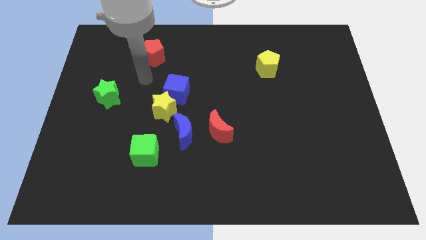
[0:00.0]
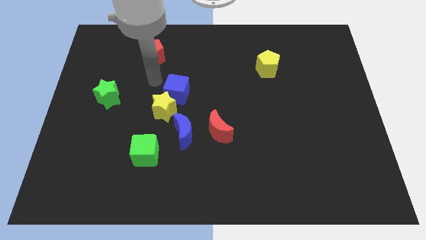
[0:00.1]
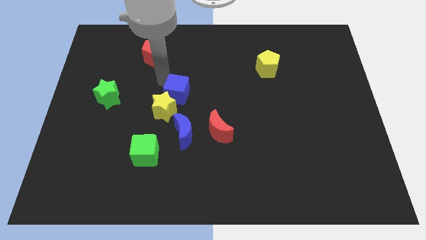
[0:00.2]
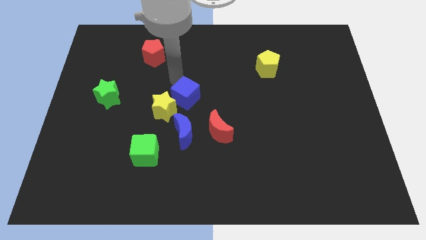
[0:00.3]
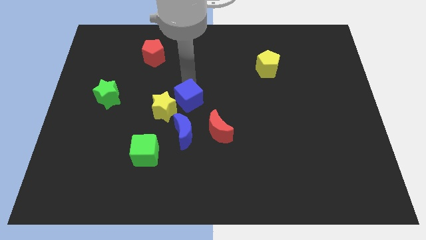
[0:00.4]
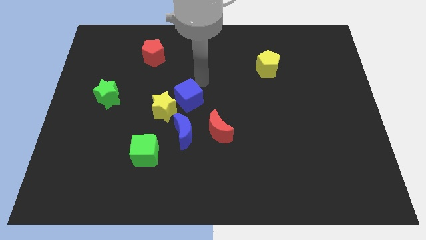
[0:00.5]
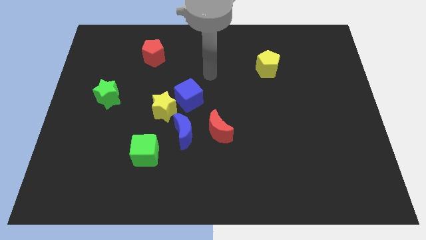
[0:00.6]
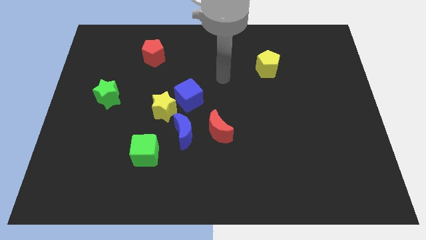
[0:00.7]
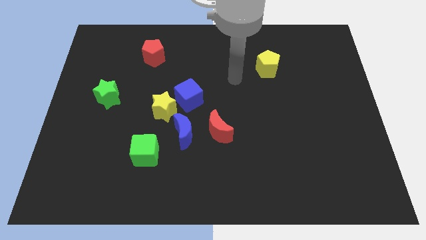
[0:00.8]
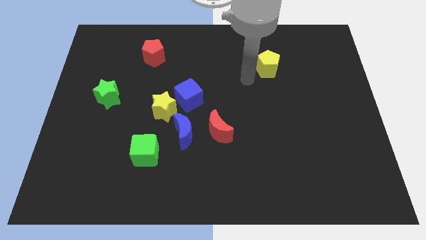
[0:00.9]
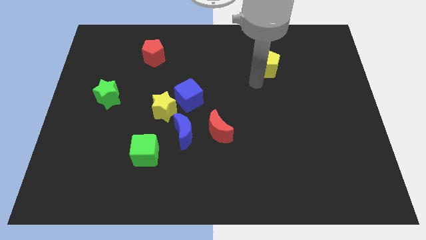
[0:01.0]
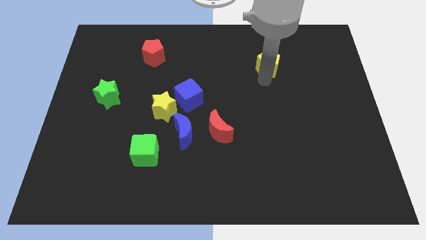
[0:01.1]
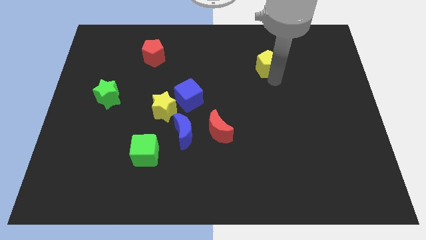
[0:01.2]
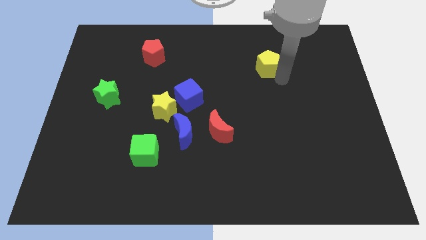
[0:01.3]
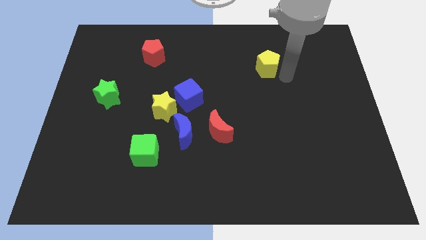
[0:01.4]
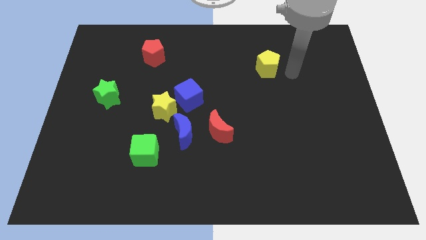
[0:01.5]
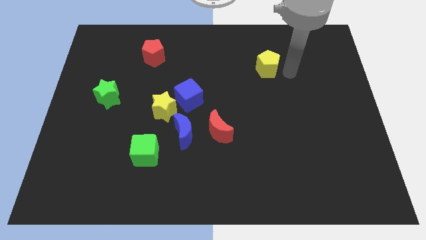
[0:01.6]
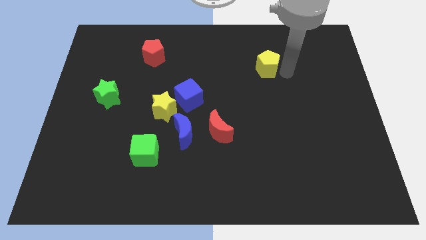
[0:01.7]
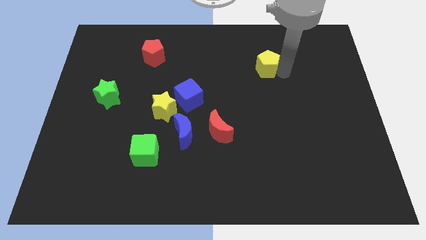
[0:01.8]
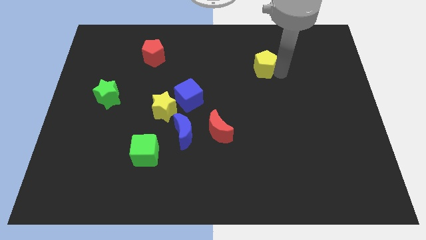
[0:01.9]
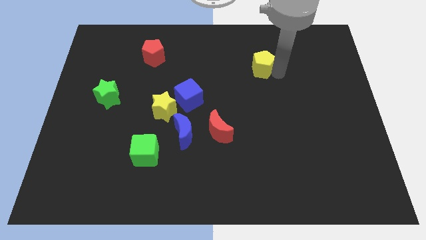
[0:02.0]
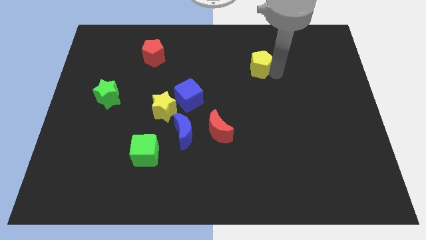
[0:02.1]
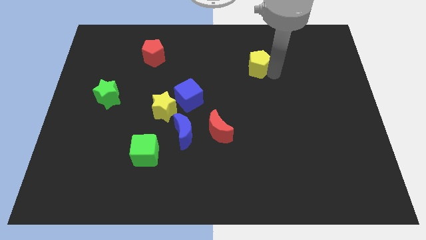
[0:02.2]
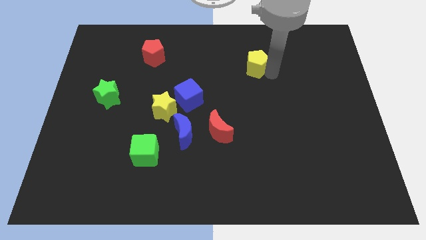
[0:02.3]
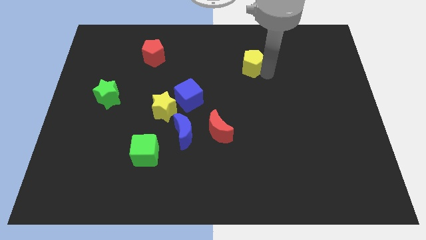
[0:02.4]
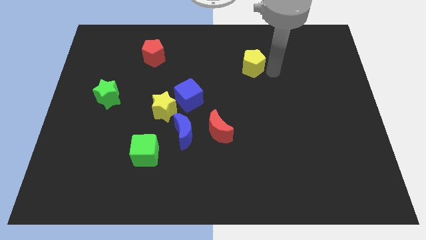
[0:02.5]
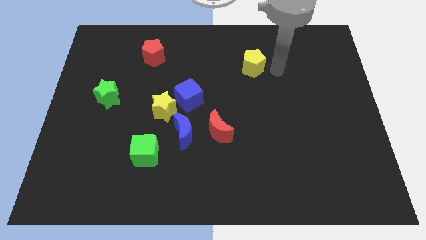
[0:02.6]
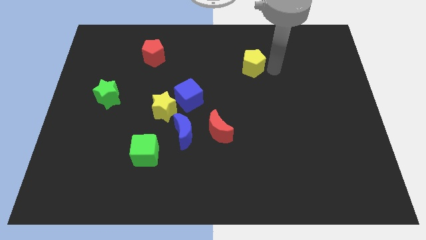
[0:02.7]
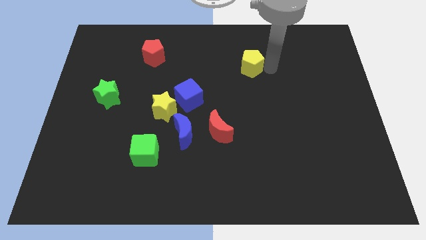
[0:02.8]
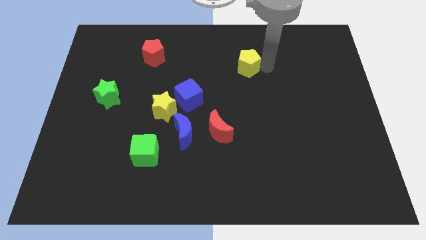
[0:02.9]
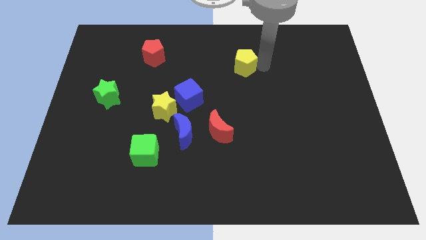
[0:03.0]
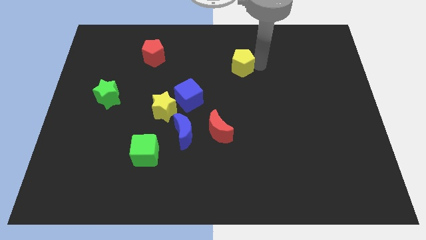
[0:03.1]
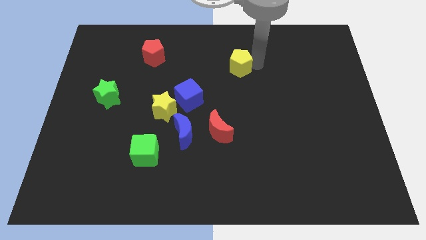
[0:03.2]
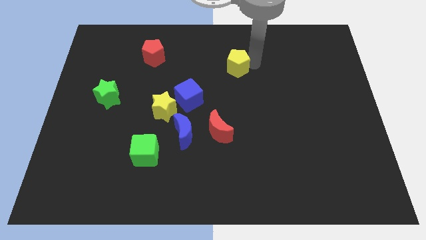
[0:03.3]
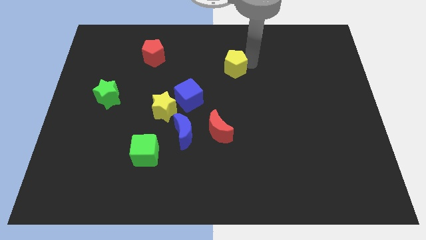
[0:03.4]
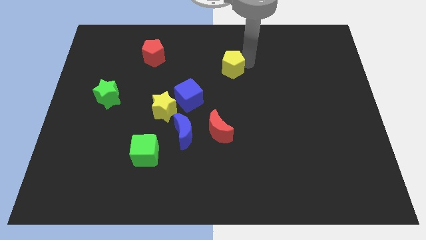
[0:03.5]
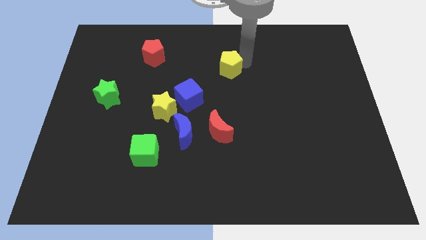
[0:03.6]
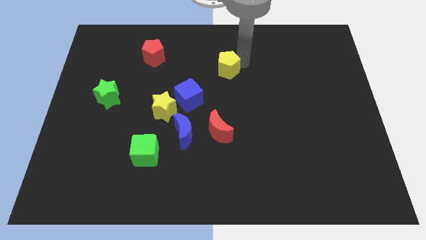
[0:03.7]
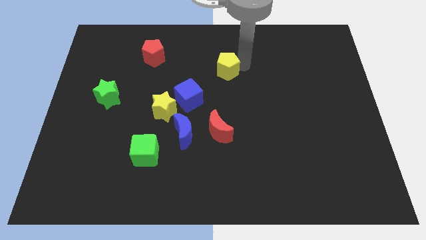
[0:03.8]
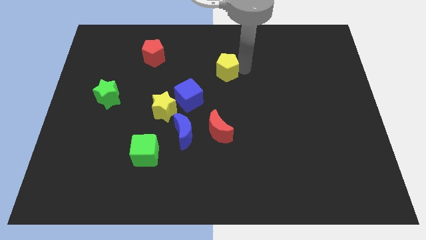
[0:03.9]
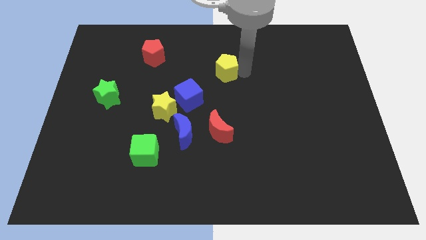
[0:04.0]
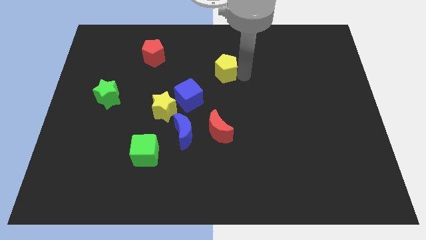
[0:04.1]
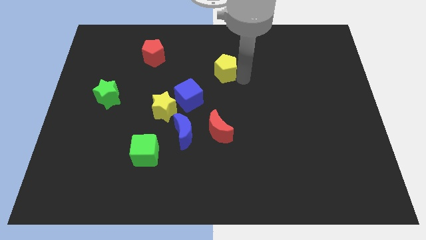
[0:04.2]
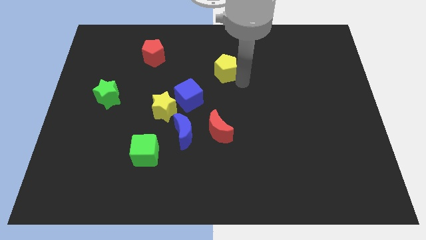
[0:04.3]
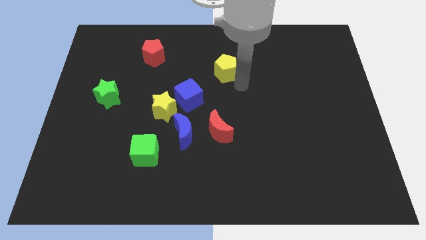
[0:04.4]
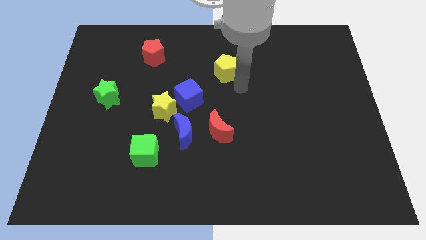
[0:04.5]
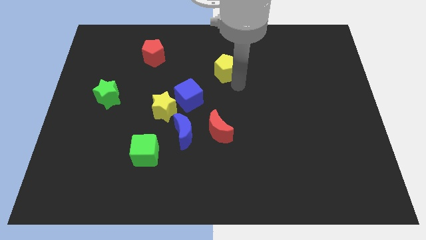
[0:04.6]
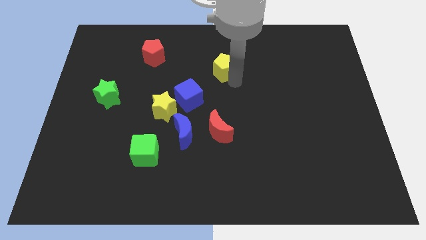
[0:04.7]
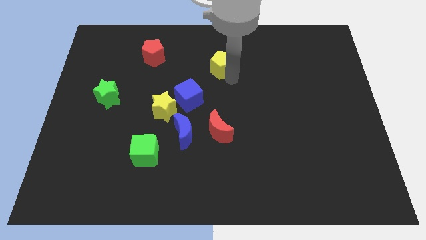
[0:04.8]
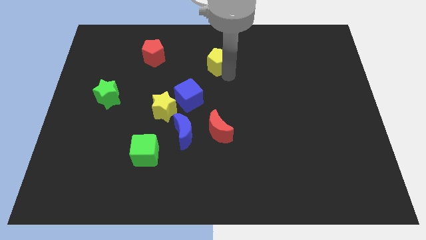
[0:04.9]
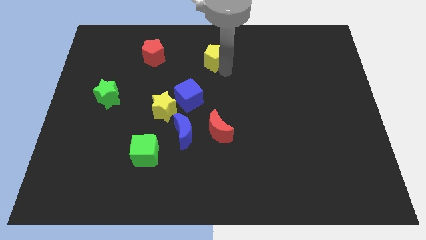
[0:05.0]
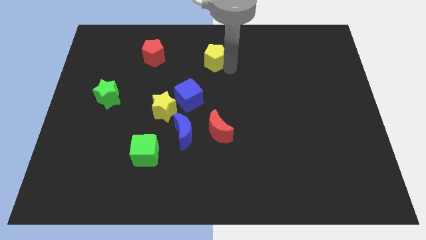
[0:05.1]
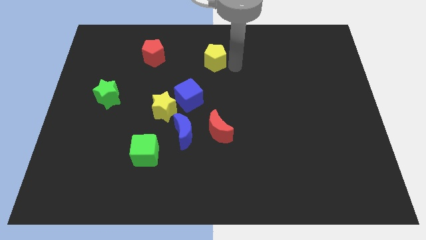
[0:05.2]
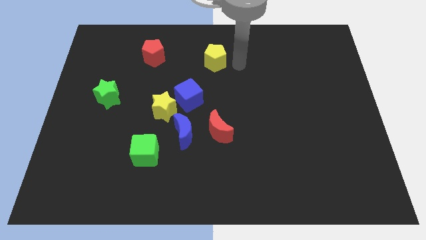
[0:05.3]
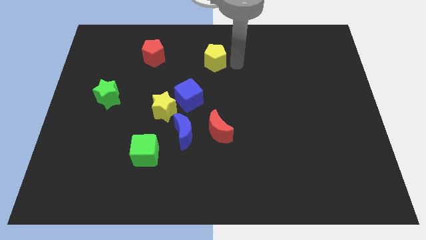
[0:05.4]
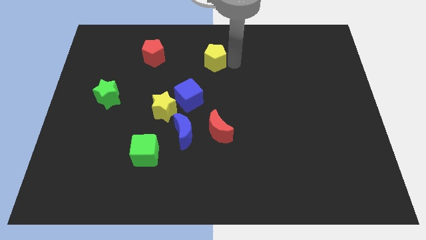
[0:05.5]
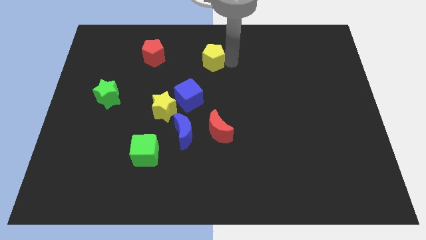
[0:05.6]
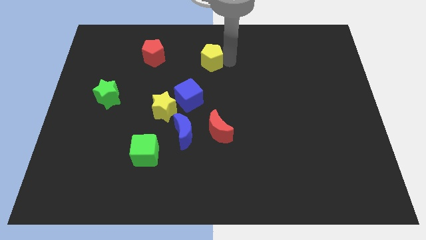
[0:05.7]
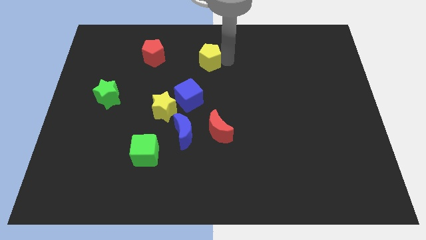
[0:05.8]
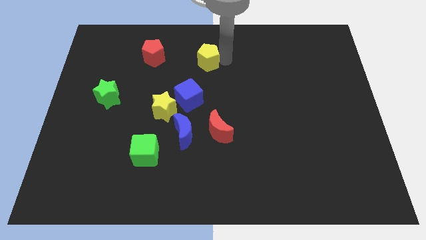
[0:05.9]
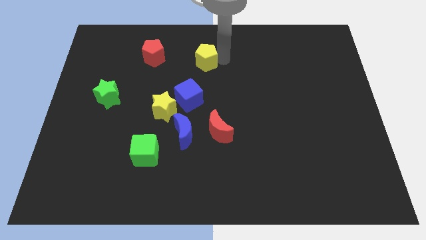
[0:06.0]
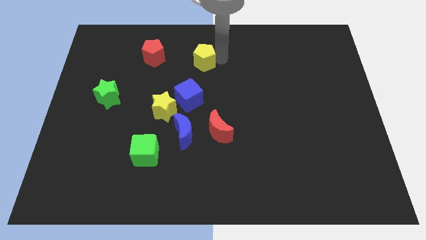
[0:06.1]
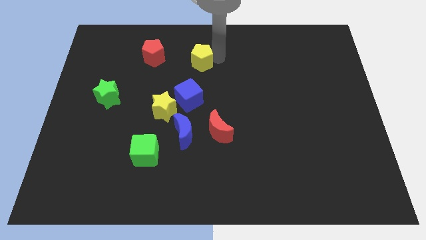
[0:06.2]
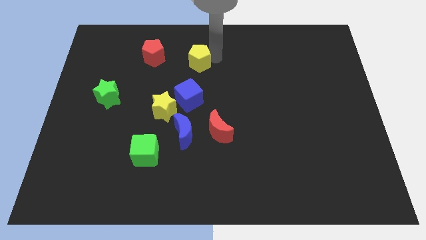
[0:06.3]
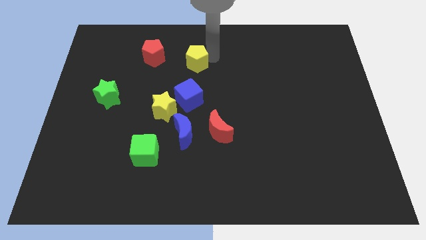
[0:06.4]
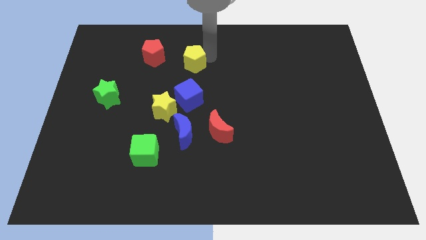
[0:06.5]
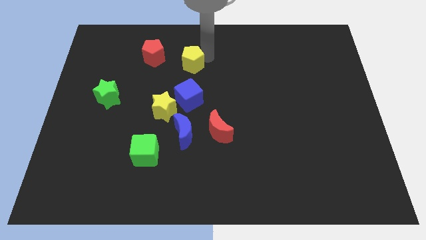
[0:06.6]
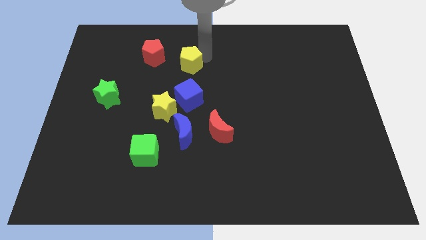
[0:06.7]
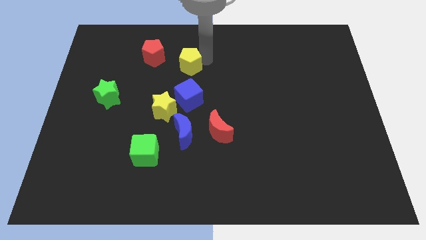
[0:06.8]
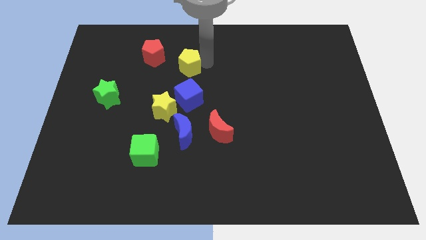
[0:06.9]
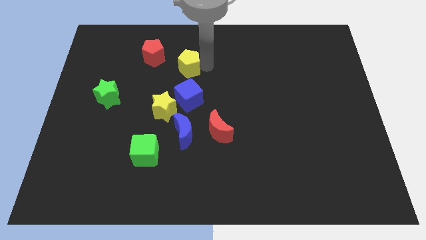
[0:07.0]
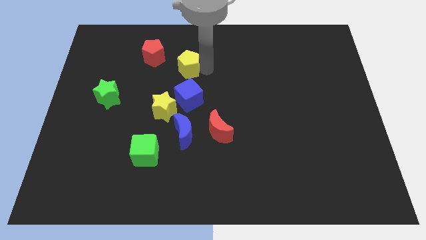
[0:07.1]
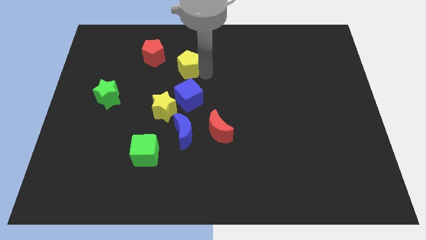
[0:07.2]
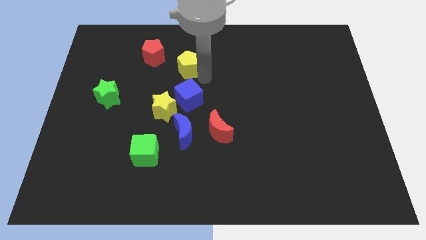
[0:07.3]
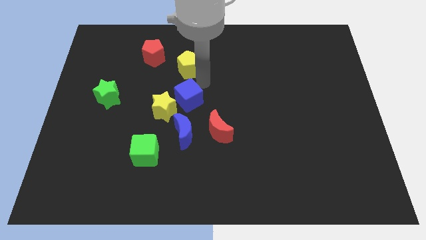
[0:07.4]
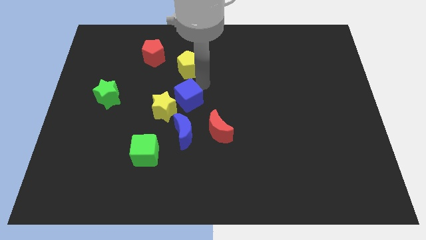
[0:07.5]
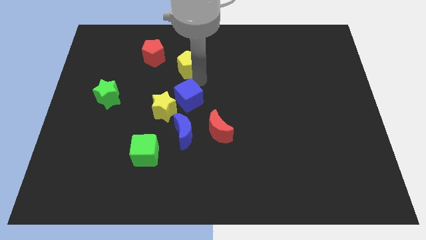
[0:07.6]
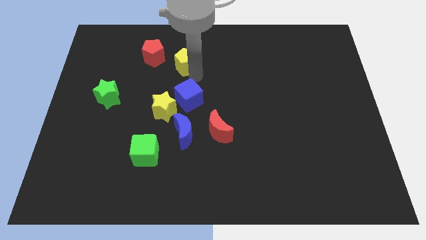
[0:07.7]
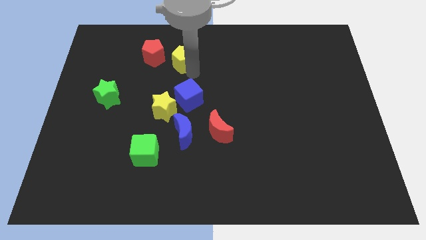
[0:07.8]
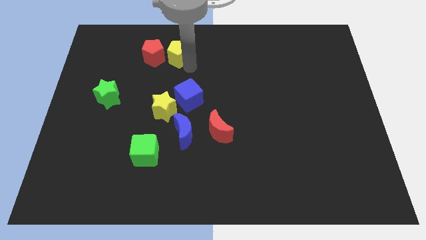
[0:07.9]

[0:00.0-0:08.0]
push the yellow pentagon next to the red pentagon

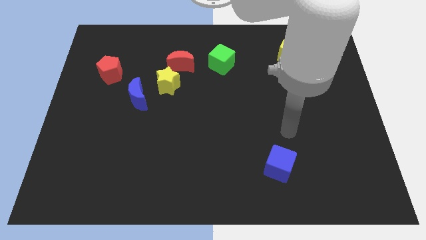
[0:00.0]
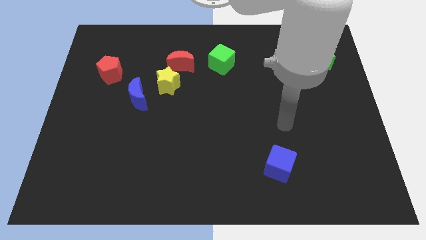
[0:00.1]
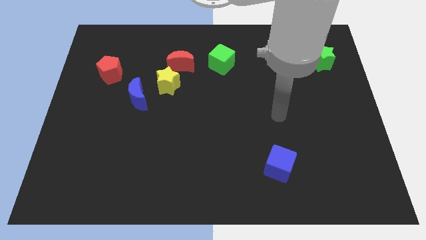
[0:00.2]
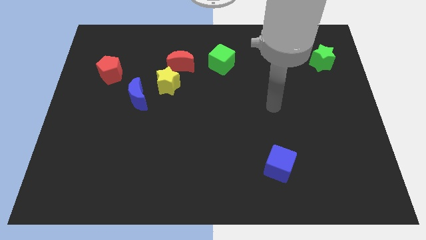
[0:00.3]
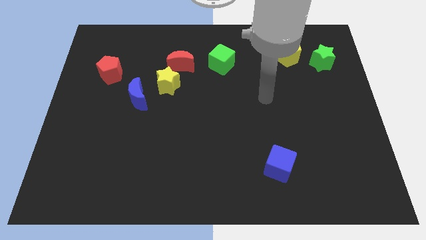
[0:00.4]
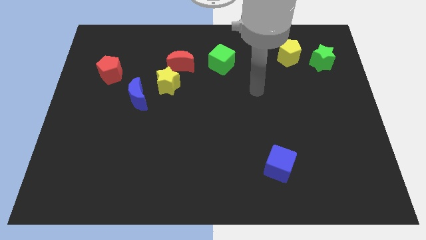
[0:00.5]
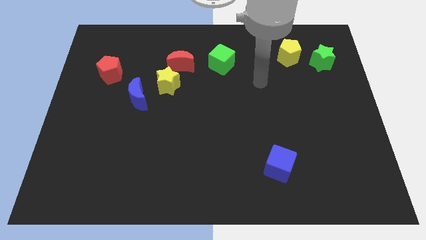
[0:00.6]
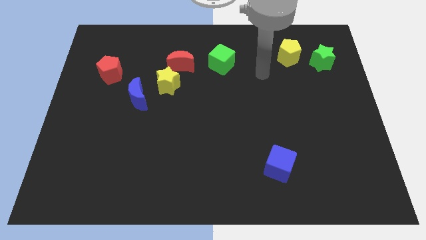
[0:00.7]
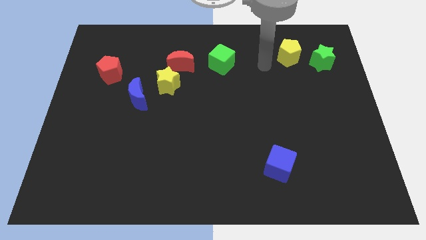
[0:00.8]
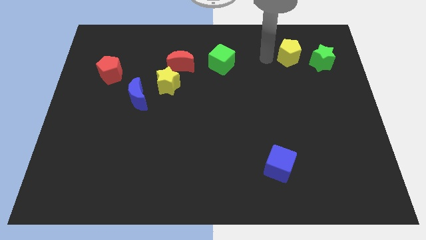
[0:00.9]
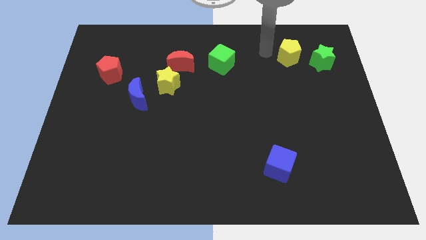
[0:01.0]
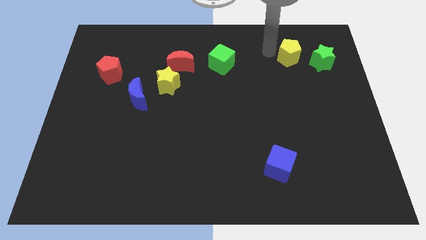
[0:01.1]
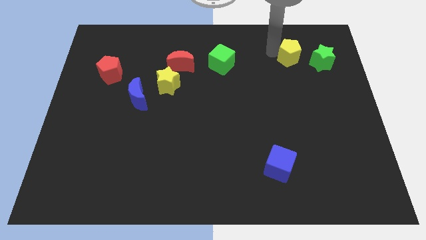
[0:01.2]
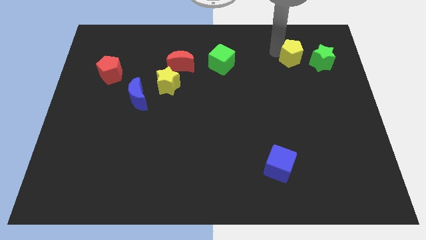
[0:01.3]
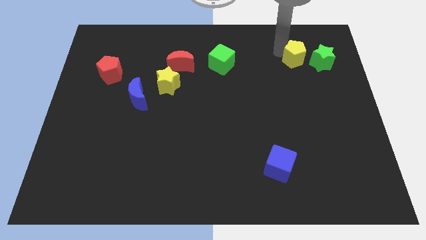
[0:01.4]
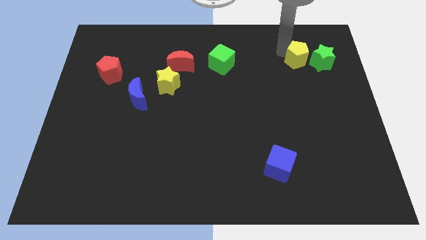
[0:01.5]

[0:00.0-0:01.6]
move the yellow pentagon to the green star
